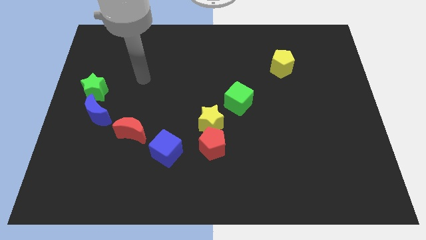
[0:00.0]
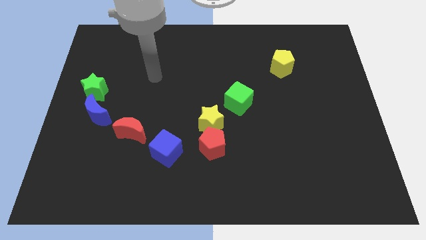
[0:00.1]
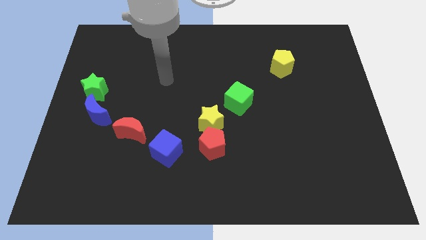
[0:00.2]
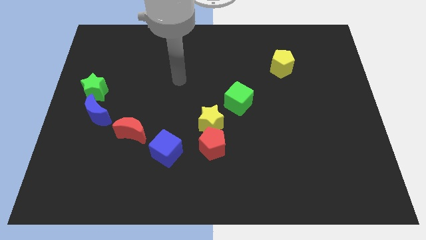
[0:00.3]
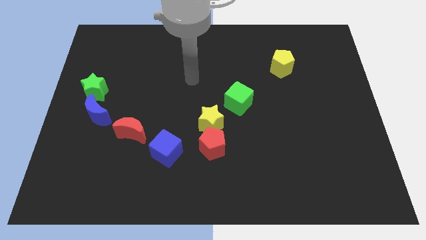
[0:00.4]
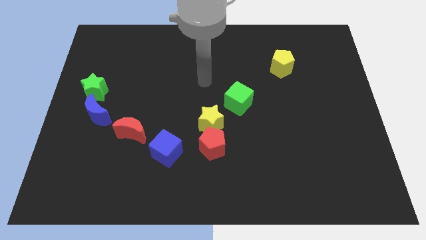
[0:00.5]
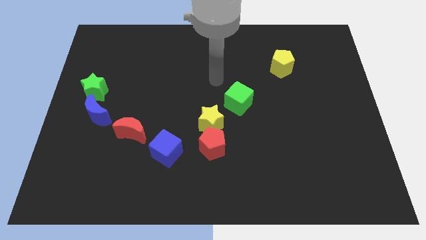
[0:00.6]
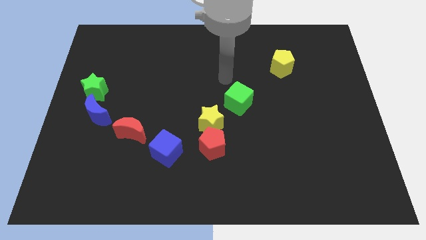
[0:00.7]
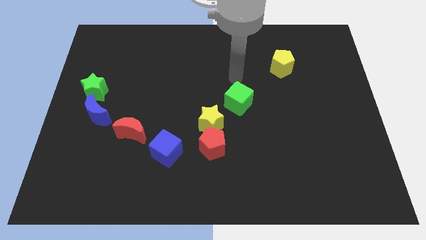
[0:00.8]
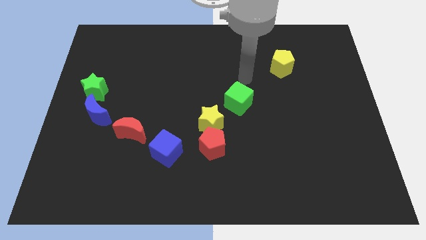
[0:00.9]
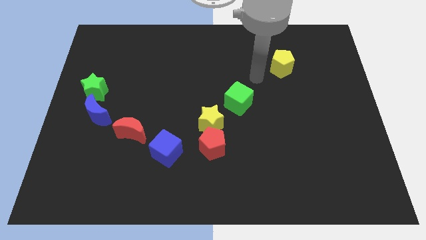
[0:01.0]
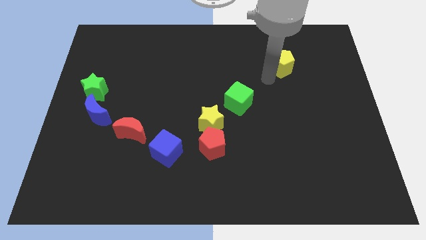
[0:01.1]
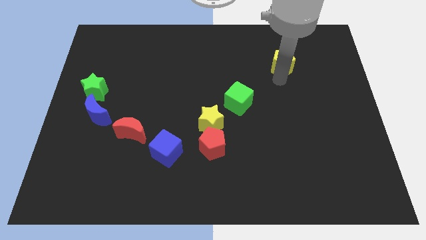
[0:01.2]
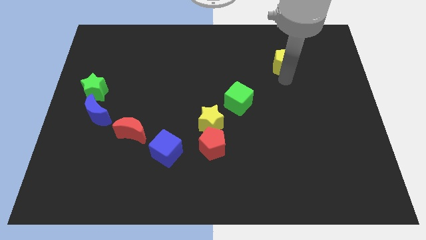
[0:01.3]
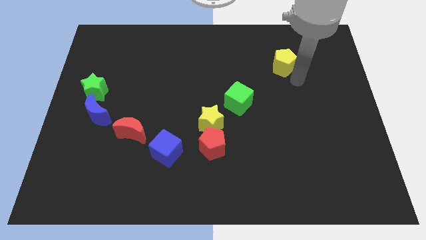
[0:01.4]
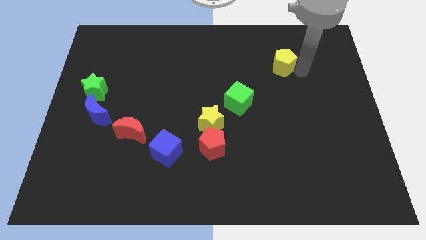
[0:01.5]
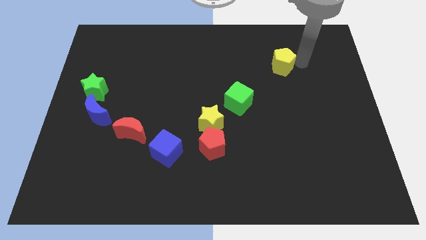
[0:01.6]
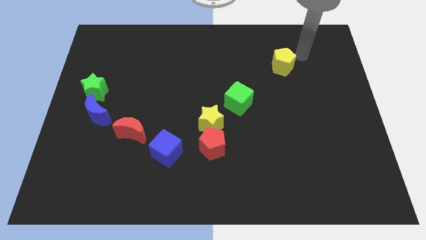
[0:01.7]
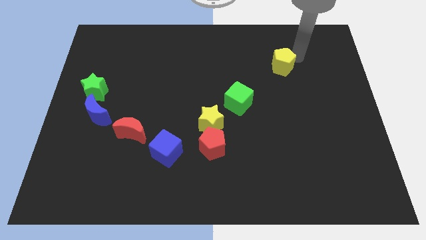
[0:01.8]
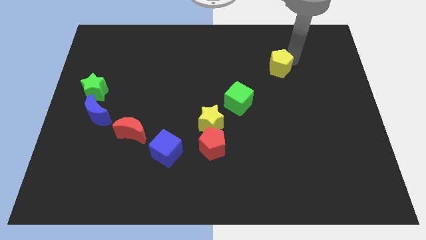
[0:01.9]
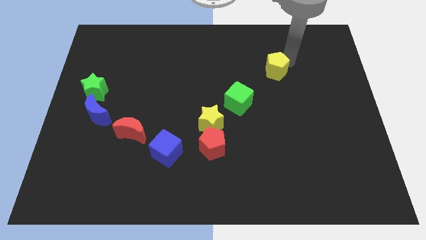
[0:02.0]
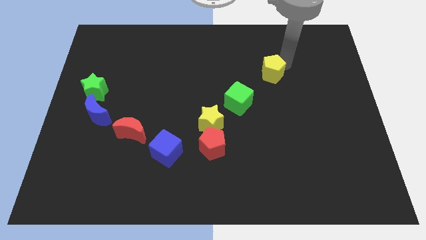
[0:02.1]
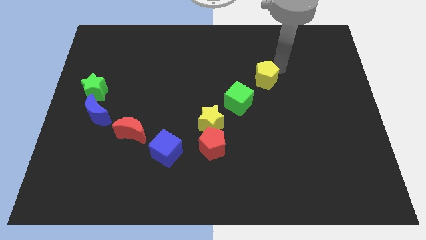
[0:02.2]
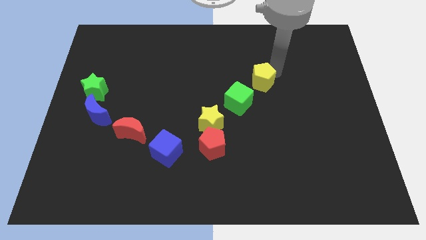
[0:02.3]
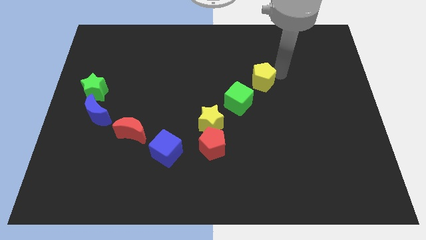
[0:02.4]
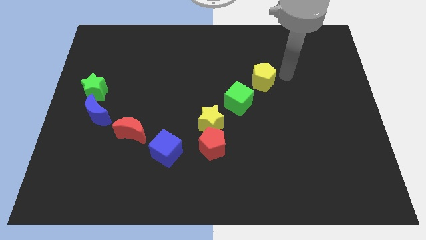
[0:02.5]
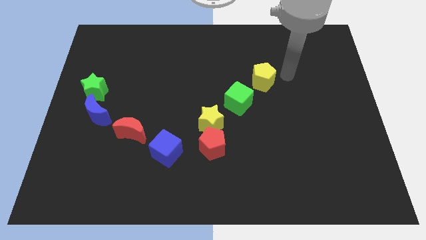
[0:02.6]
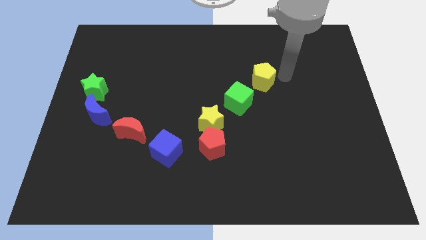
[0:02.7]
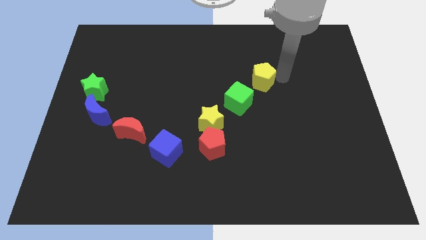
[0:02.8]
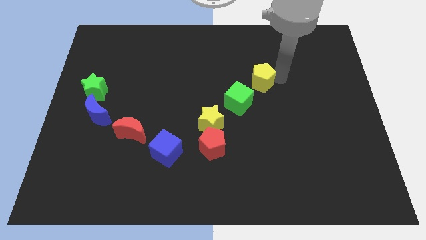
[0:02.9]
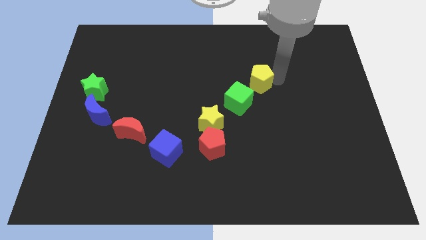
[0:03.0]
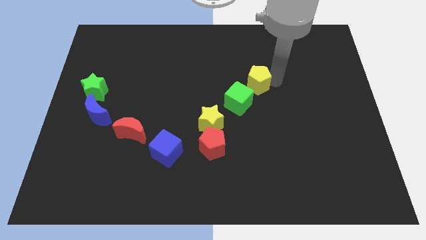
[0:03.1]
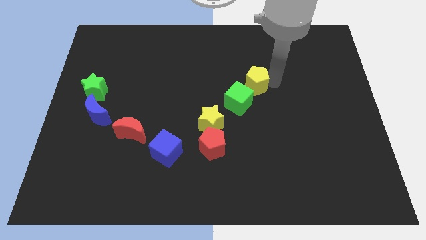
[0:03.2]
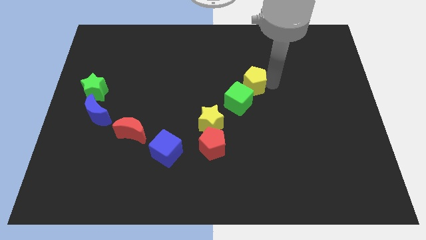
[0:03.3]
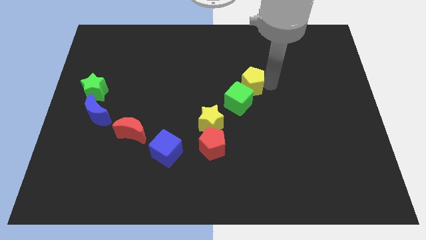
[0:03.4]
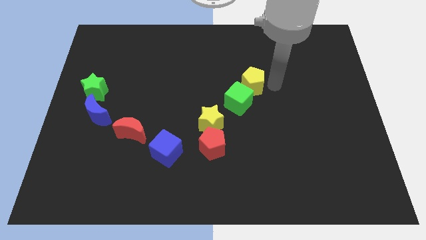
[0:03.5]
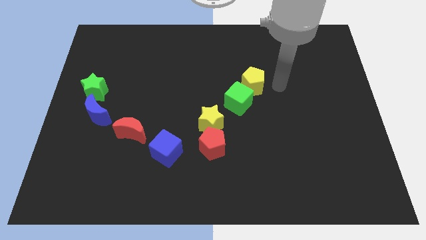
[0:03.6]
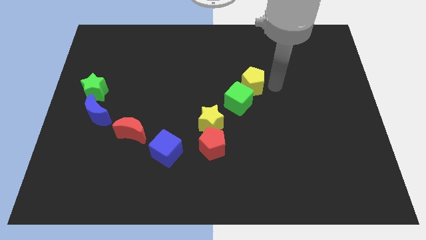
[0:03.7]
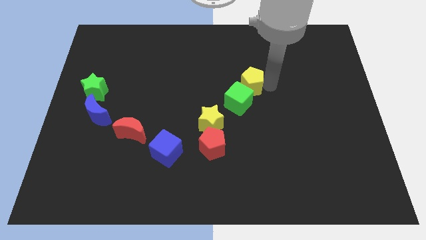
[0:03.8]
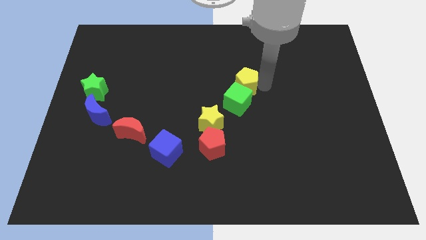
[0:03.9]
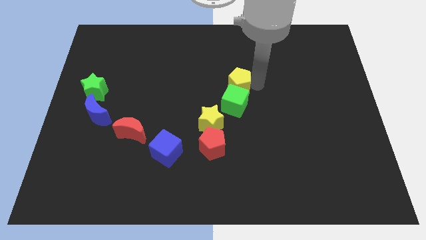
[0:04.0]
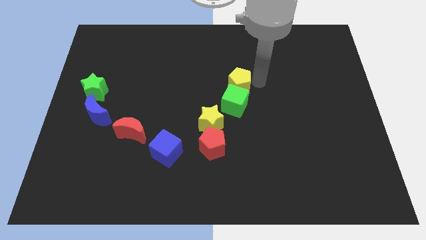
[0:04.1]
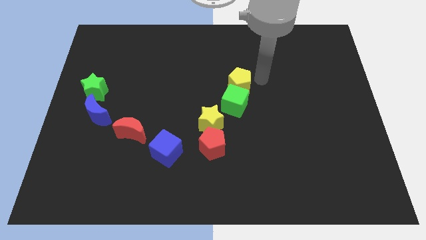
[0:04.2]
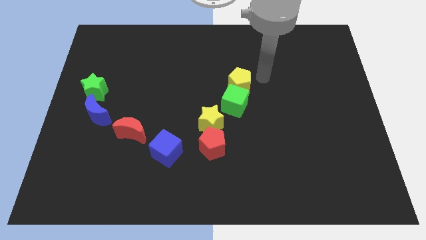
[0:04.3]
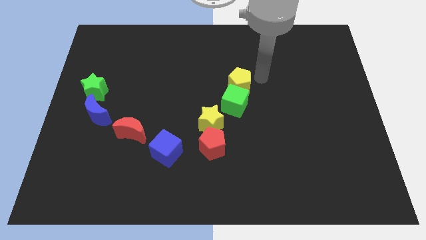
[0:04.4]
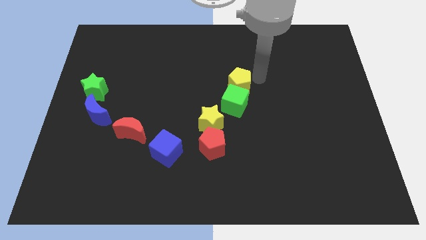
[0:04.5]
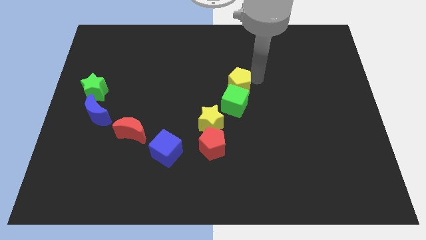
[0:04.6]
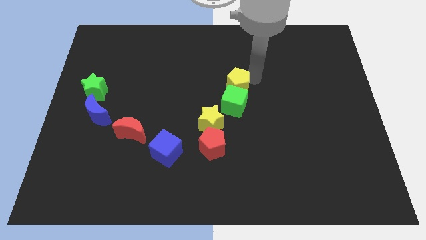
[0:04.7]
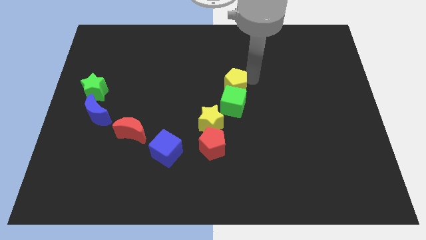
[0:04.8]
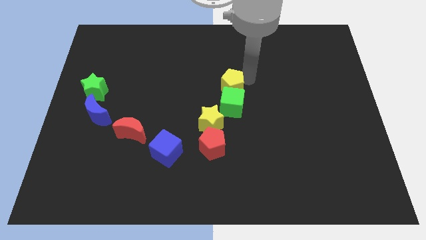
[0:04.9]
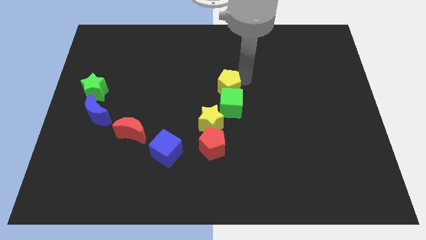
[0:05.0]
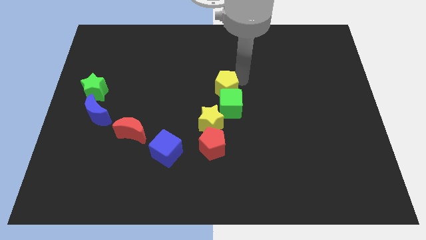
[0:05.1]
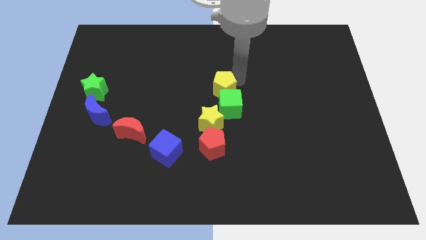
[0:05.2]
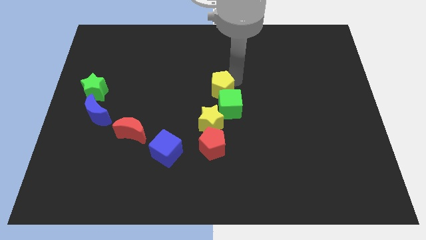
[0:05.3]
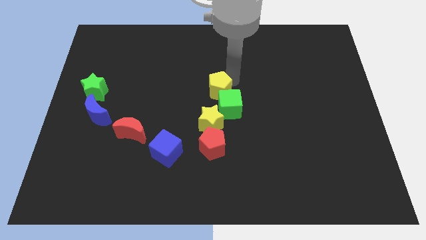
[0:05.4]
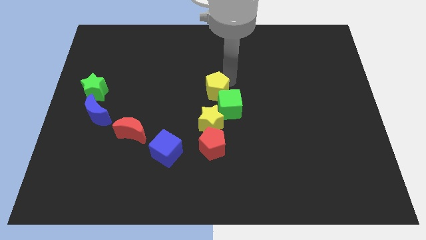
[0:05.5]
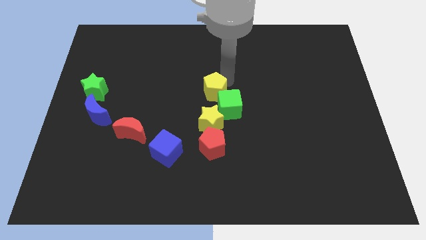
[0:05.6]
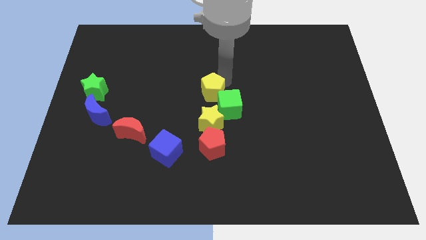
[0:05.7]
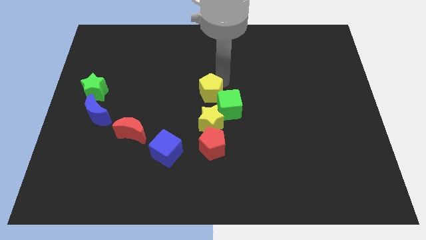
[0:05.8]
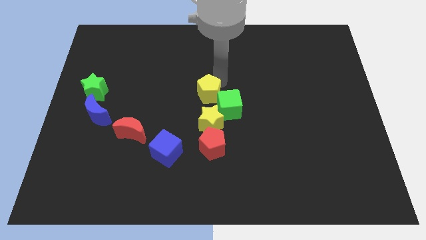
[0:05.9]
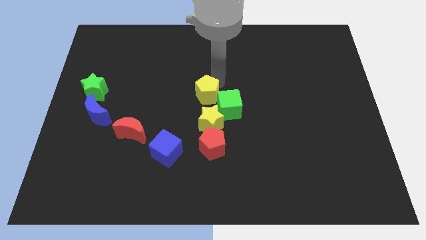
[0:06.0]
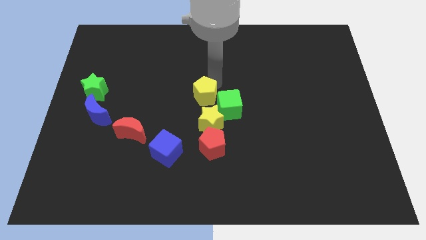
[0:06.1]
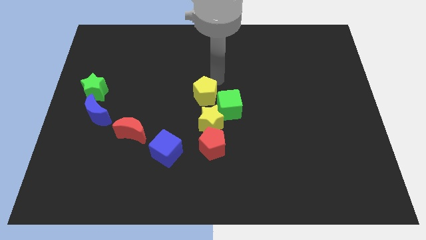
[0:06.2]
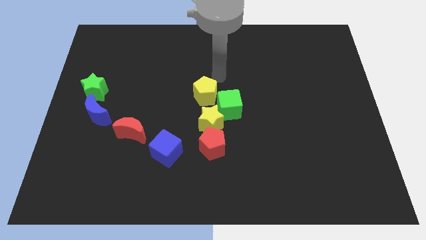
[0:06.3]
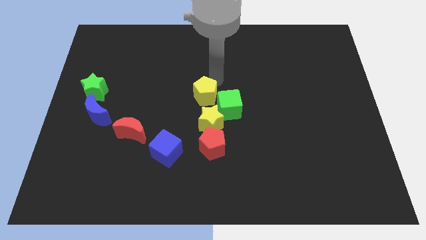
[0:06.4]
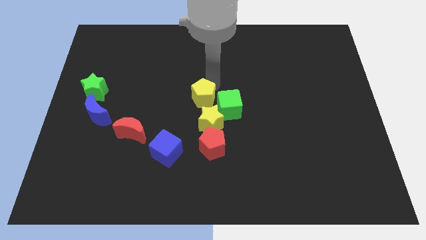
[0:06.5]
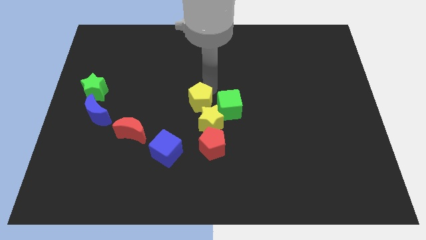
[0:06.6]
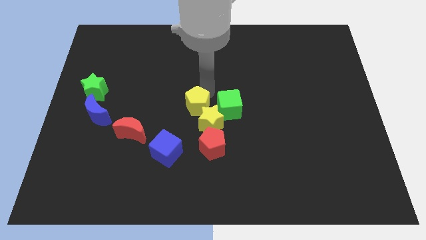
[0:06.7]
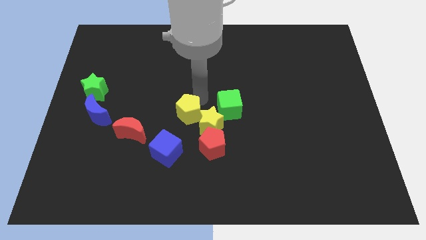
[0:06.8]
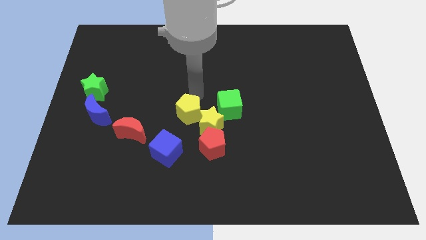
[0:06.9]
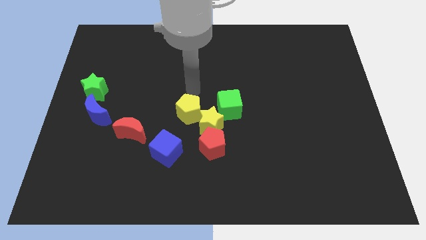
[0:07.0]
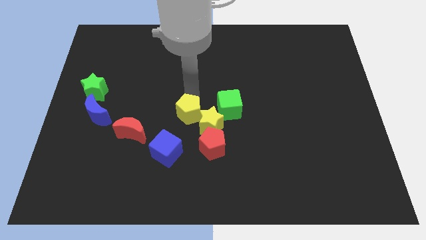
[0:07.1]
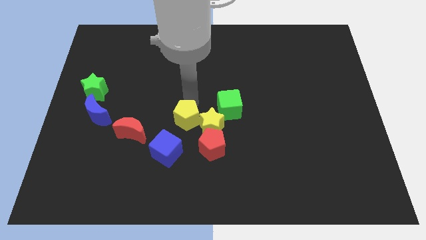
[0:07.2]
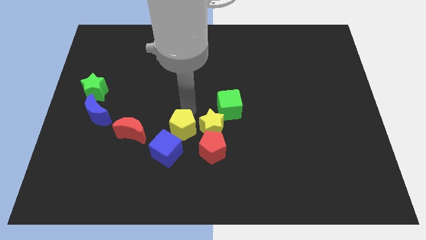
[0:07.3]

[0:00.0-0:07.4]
put the yellow pentagon to the bottom left of the yellow star
